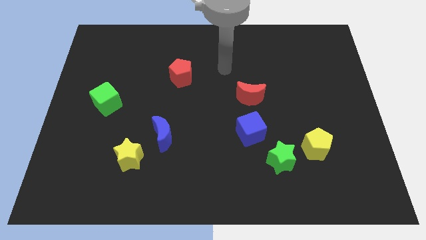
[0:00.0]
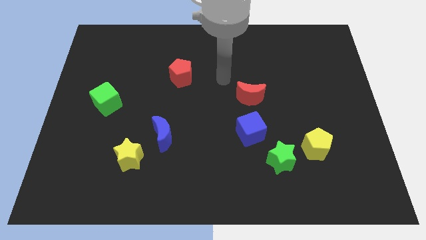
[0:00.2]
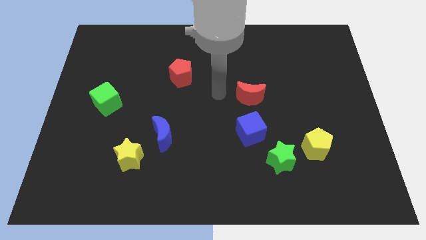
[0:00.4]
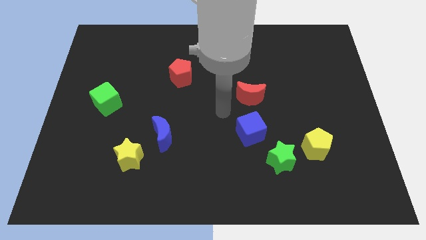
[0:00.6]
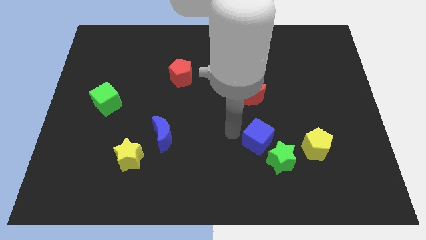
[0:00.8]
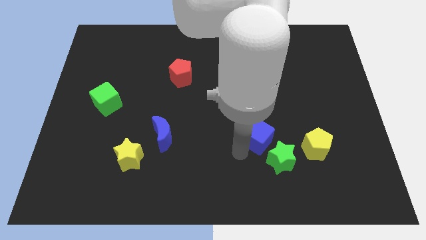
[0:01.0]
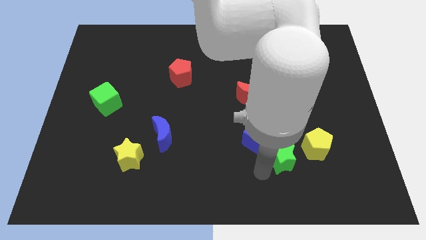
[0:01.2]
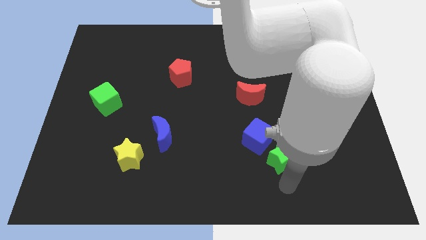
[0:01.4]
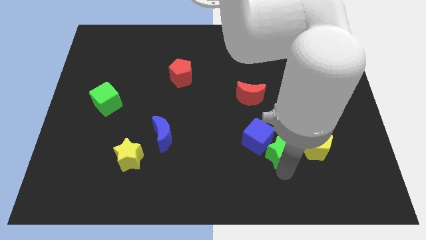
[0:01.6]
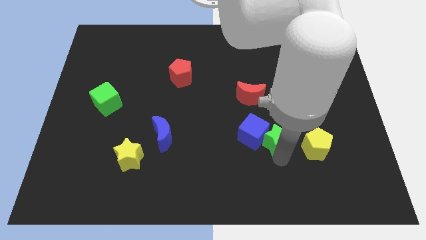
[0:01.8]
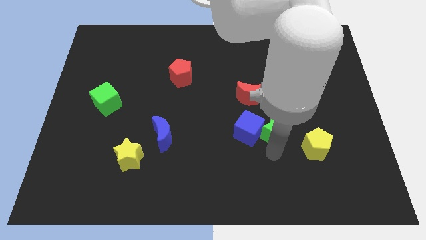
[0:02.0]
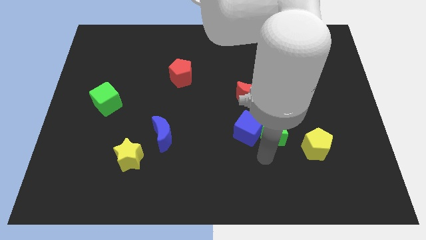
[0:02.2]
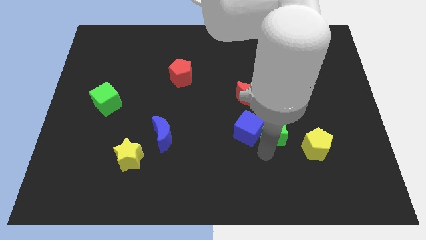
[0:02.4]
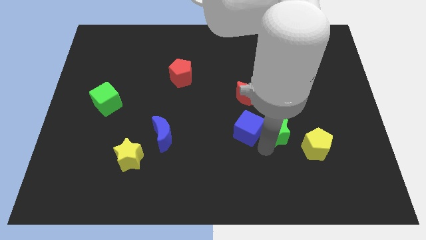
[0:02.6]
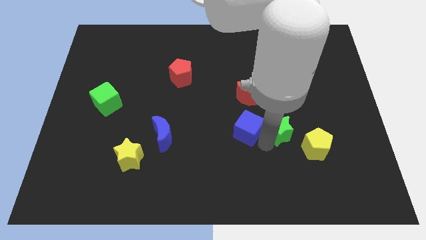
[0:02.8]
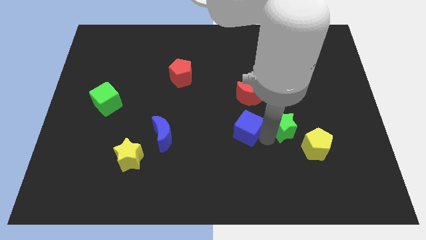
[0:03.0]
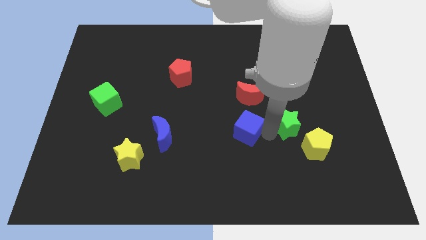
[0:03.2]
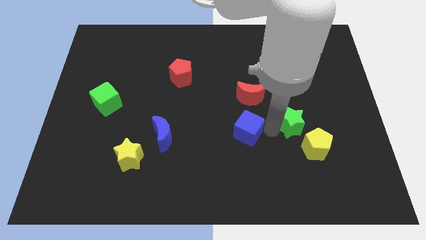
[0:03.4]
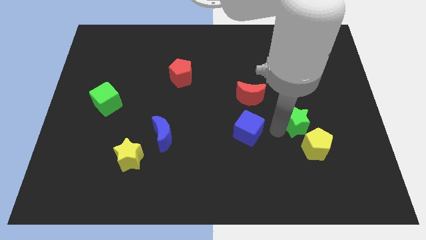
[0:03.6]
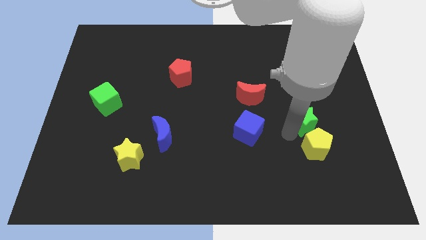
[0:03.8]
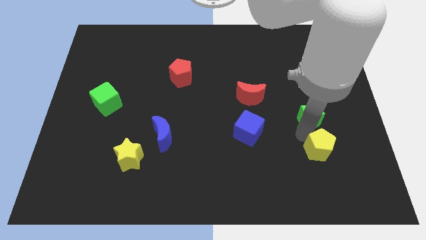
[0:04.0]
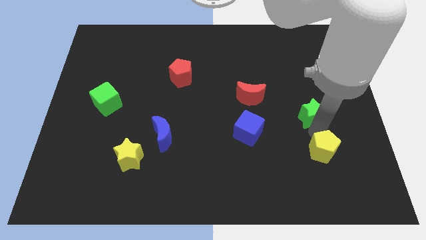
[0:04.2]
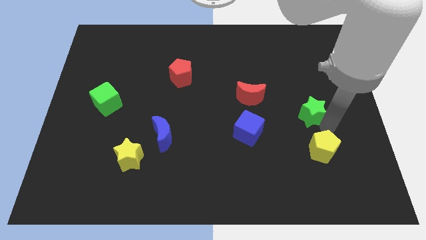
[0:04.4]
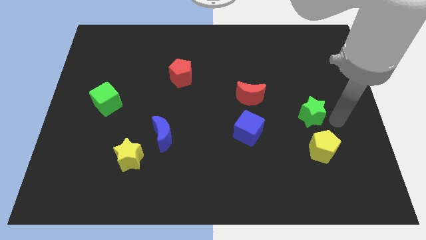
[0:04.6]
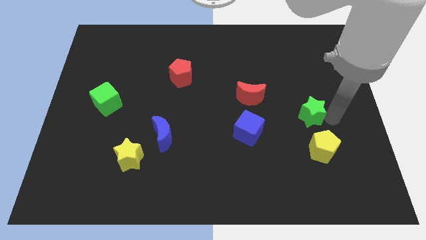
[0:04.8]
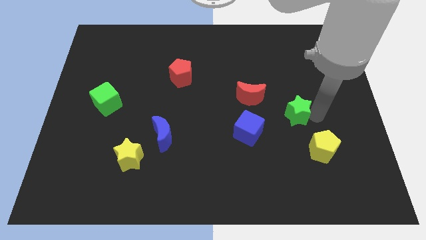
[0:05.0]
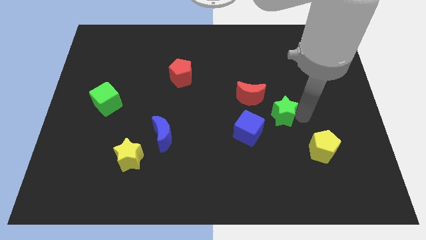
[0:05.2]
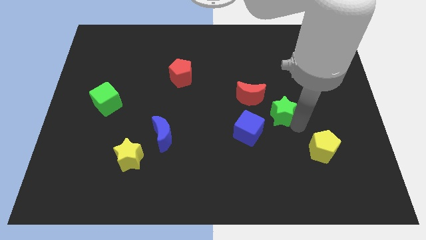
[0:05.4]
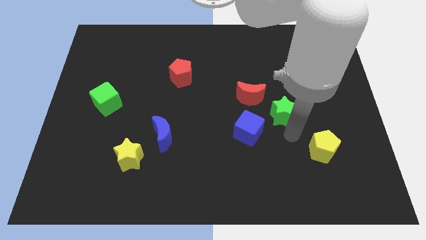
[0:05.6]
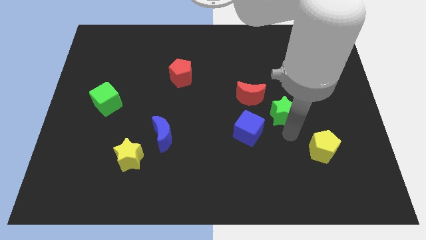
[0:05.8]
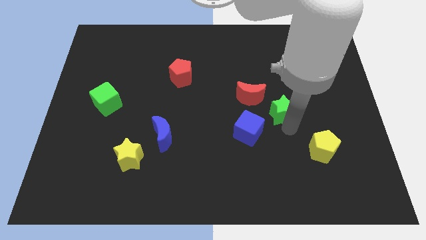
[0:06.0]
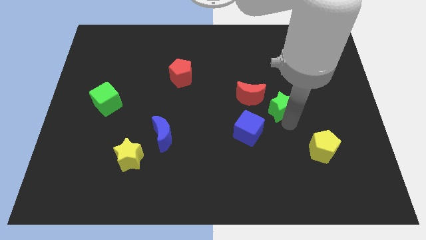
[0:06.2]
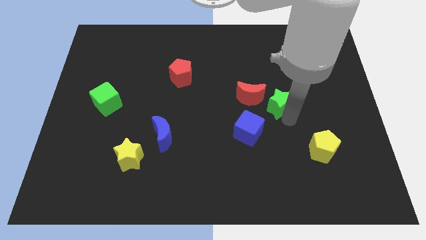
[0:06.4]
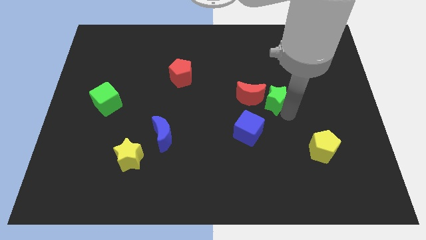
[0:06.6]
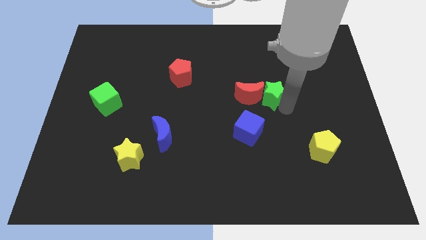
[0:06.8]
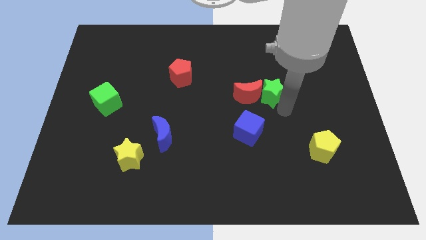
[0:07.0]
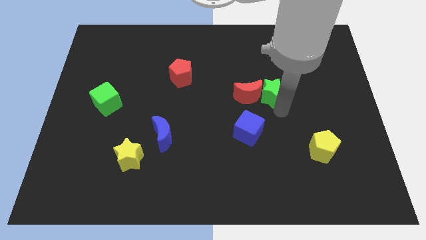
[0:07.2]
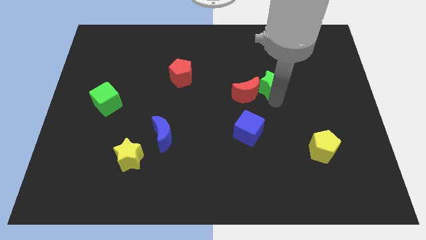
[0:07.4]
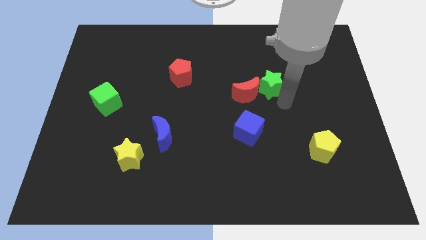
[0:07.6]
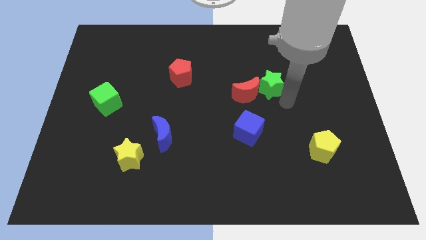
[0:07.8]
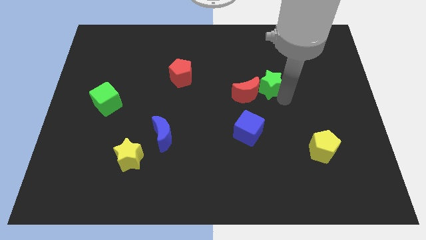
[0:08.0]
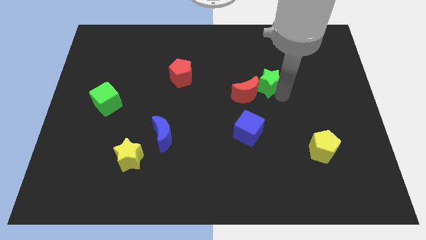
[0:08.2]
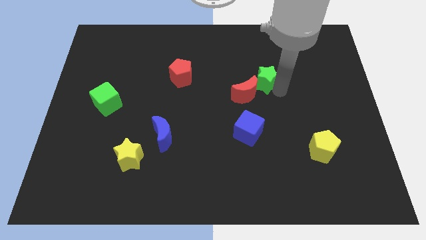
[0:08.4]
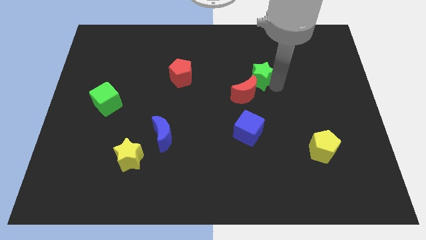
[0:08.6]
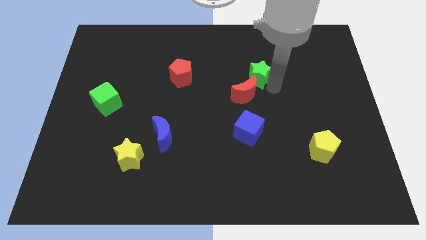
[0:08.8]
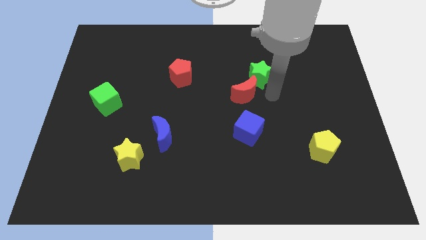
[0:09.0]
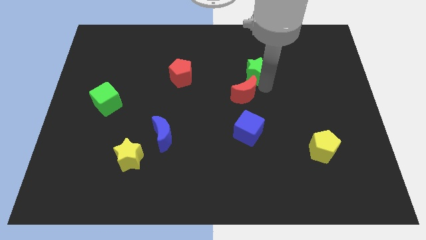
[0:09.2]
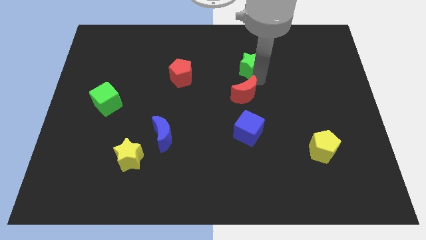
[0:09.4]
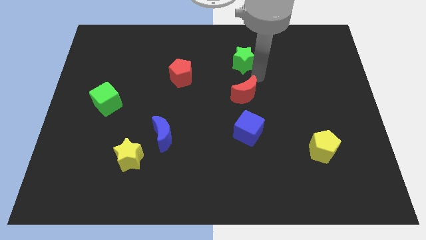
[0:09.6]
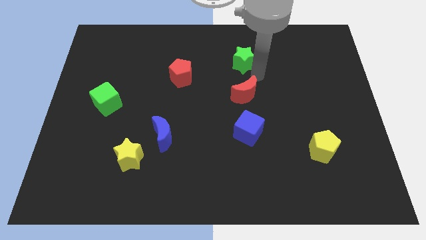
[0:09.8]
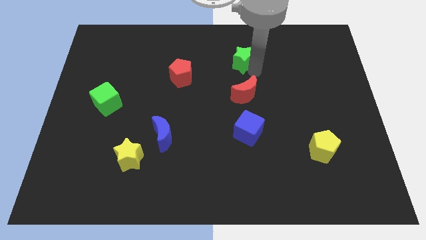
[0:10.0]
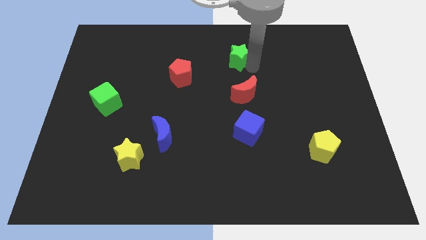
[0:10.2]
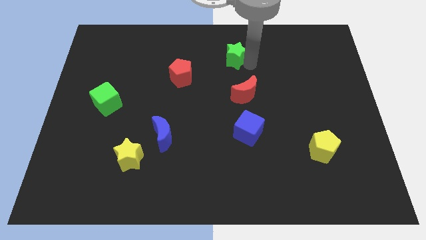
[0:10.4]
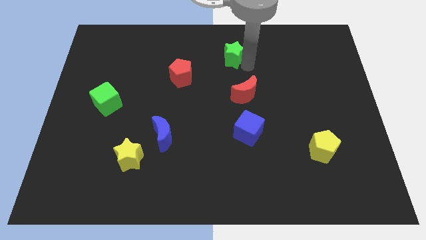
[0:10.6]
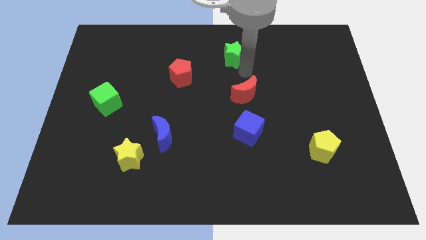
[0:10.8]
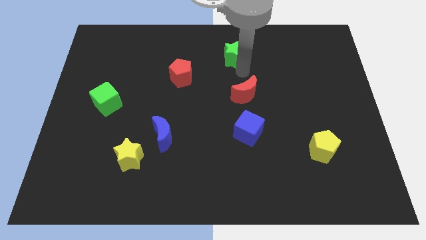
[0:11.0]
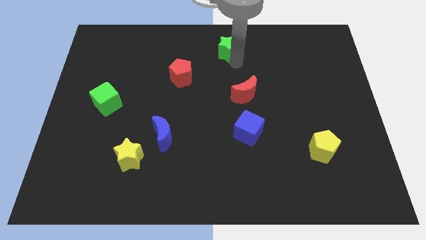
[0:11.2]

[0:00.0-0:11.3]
put the green star to the top side

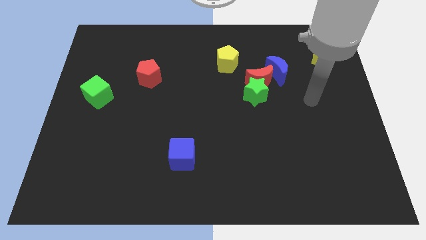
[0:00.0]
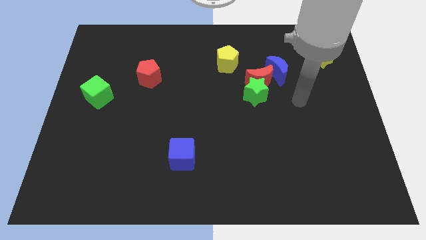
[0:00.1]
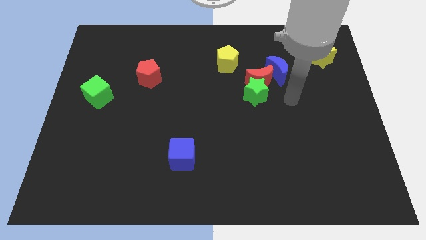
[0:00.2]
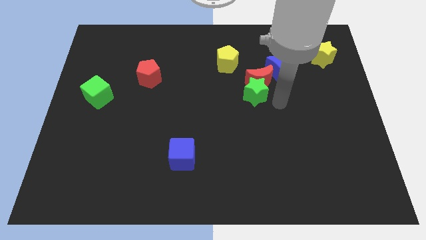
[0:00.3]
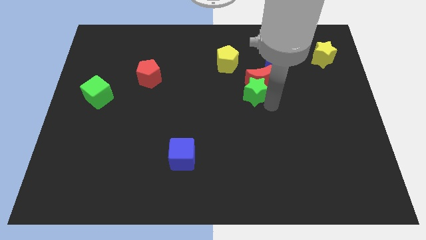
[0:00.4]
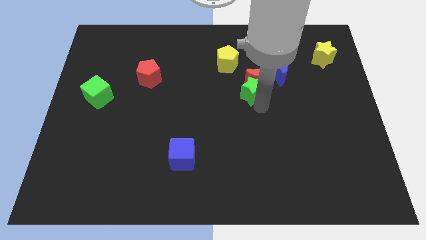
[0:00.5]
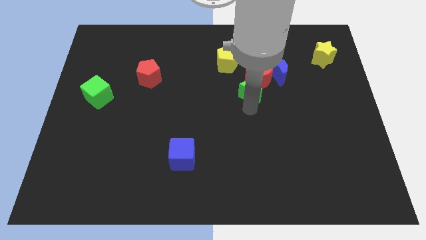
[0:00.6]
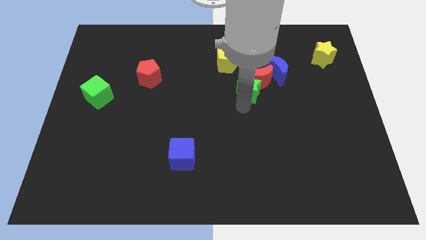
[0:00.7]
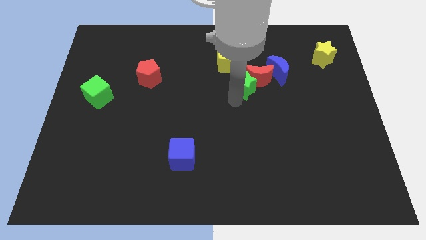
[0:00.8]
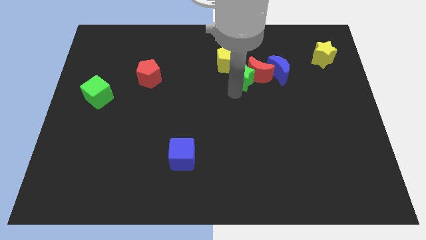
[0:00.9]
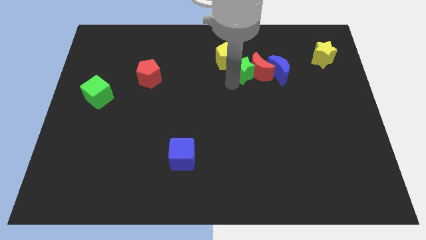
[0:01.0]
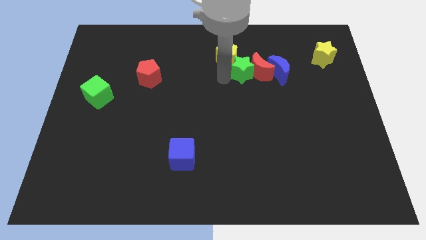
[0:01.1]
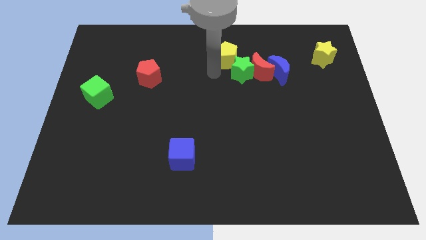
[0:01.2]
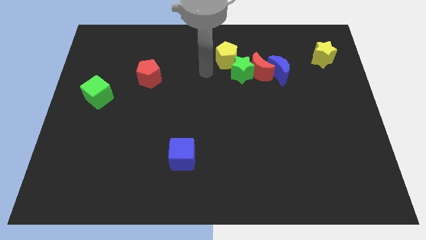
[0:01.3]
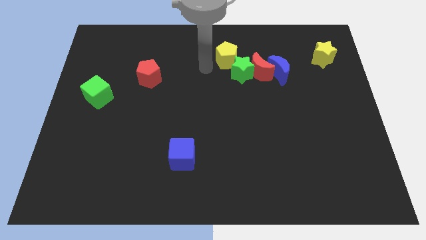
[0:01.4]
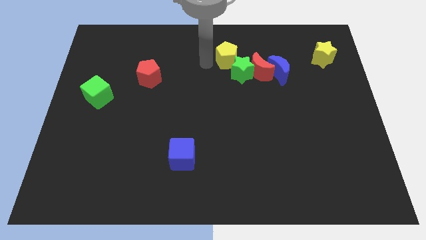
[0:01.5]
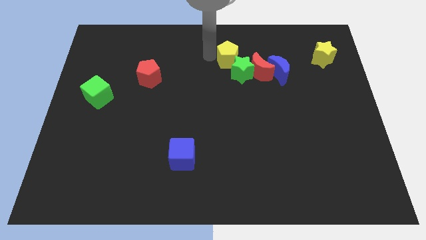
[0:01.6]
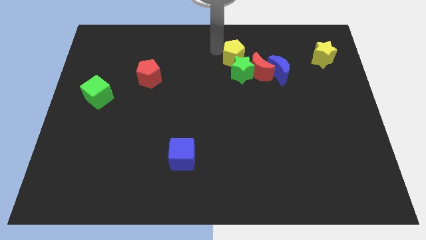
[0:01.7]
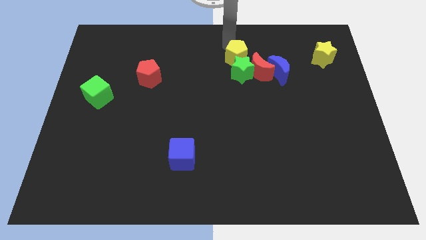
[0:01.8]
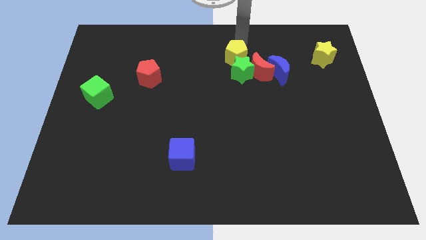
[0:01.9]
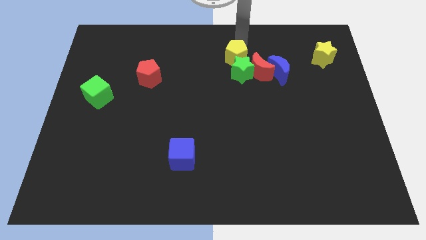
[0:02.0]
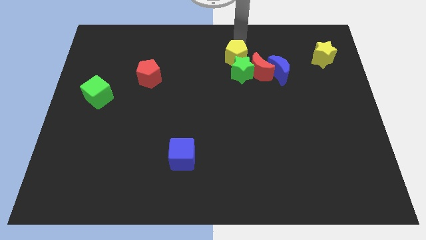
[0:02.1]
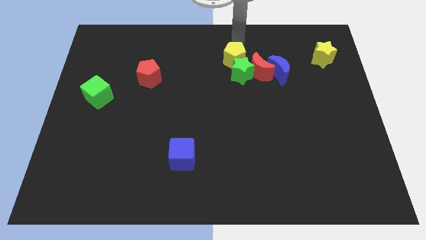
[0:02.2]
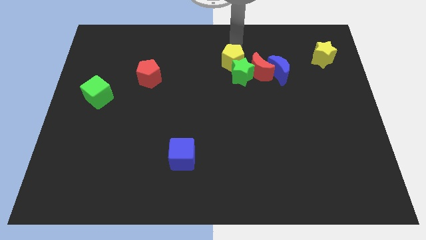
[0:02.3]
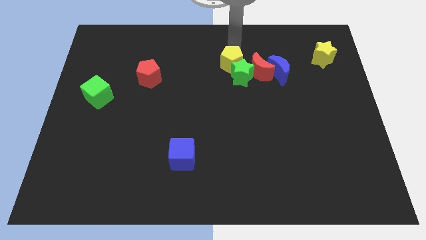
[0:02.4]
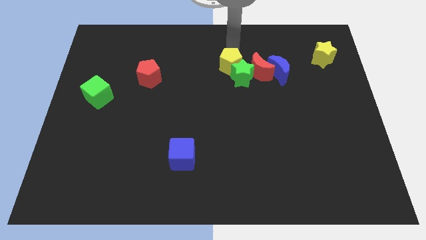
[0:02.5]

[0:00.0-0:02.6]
slide the yellow pentagon to the center of the board
